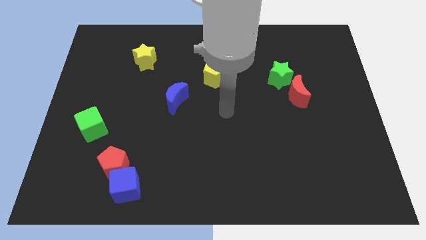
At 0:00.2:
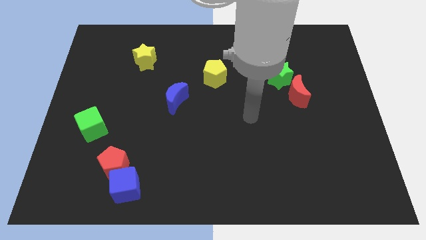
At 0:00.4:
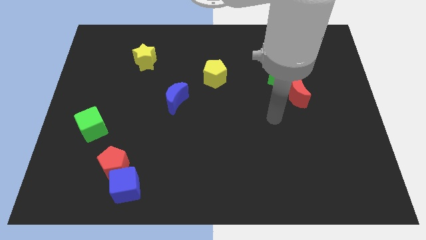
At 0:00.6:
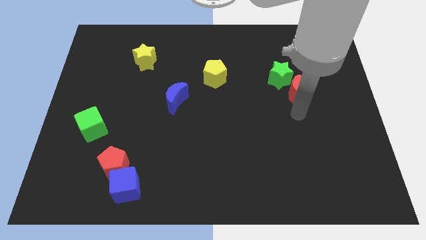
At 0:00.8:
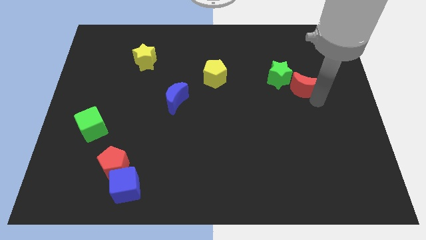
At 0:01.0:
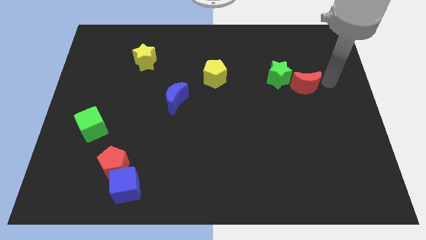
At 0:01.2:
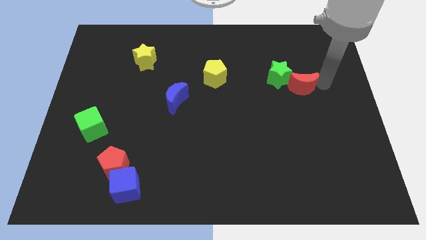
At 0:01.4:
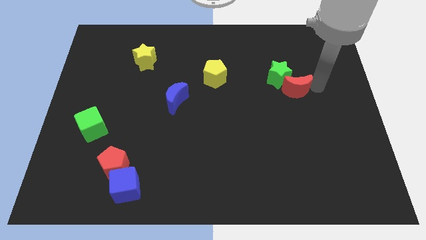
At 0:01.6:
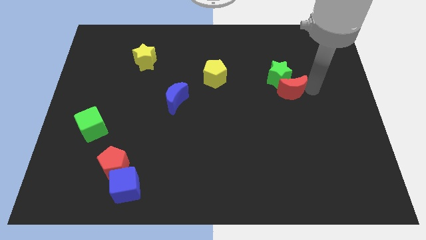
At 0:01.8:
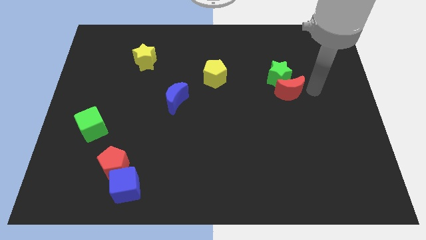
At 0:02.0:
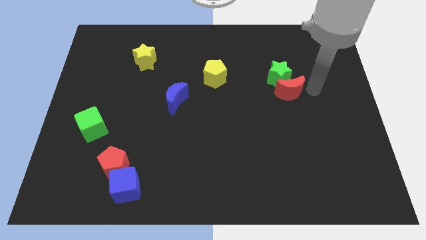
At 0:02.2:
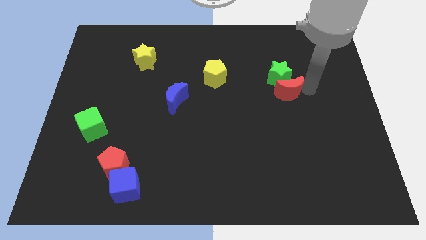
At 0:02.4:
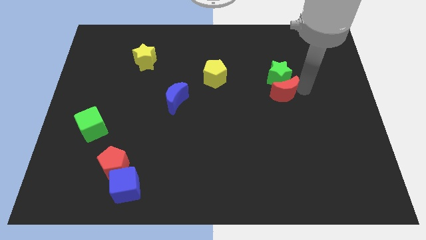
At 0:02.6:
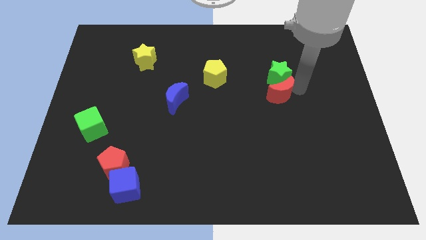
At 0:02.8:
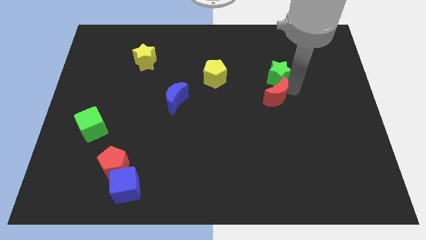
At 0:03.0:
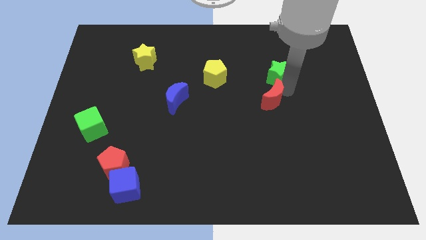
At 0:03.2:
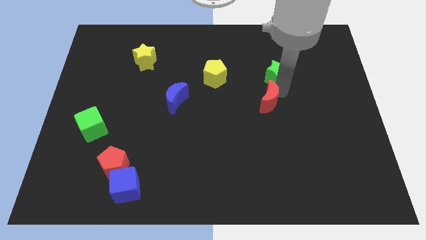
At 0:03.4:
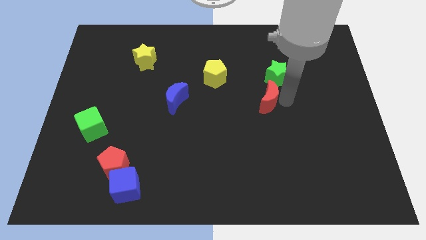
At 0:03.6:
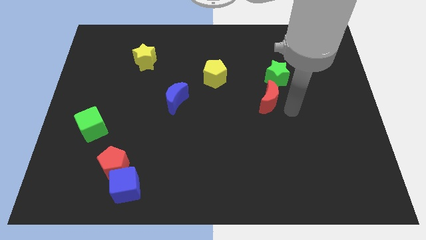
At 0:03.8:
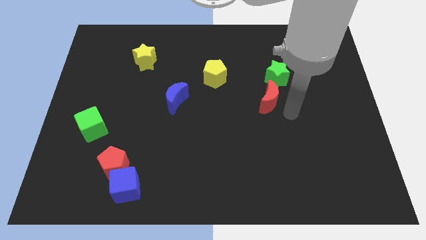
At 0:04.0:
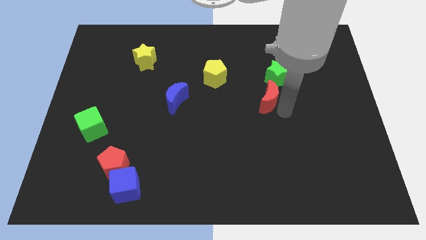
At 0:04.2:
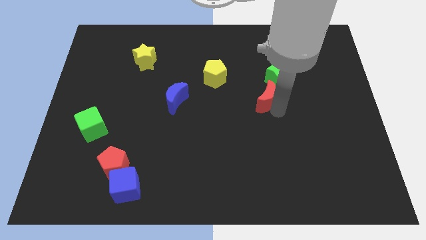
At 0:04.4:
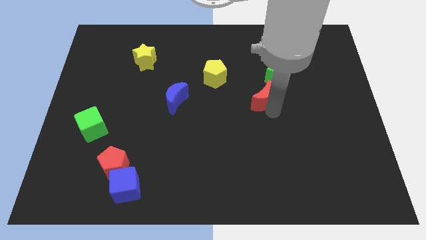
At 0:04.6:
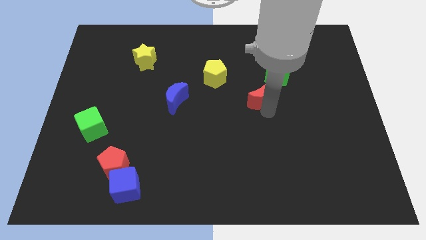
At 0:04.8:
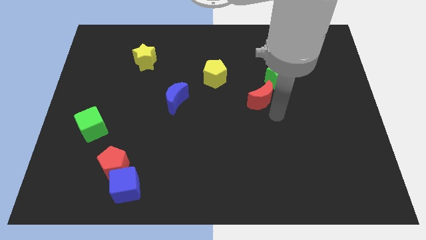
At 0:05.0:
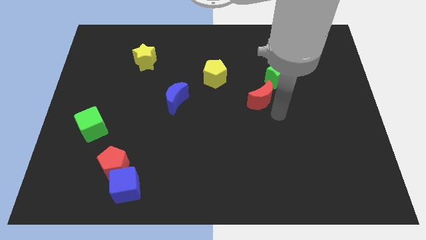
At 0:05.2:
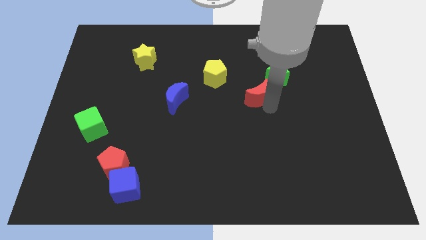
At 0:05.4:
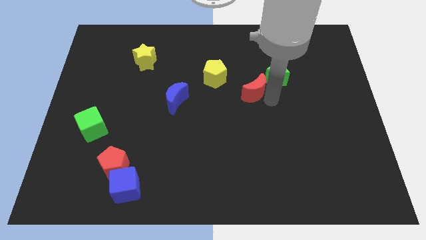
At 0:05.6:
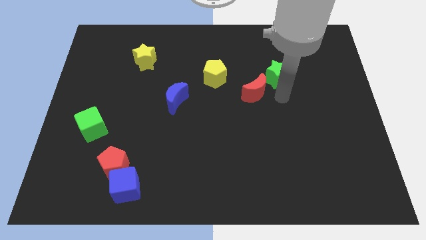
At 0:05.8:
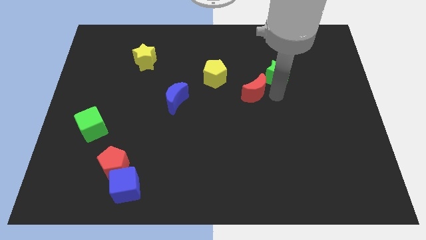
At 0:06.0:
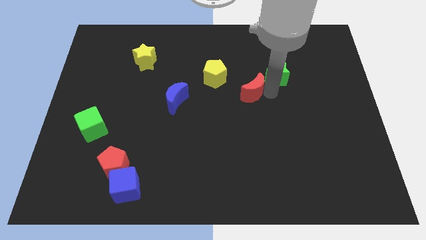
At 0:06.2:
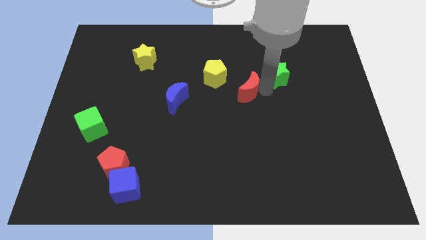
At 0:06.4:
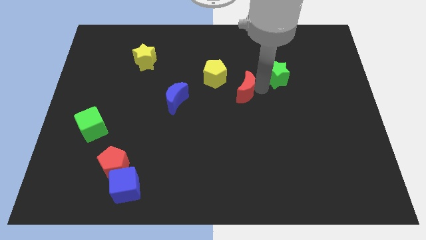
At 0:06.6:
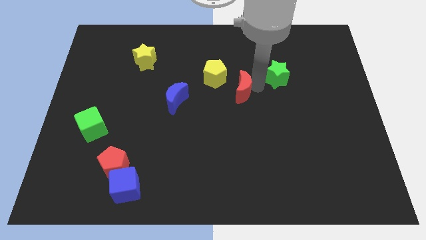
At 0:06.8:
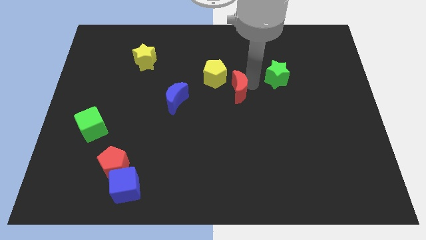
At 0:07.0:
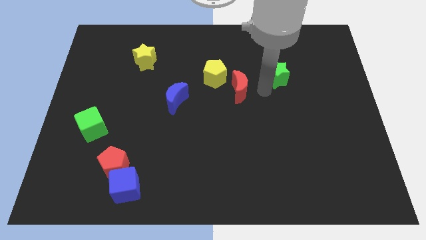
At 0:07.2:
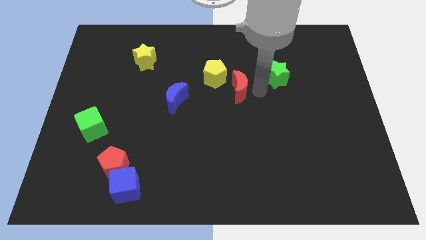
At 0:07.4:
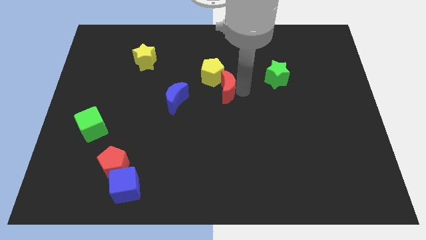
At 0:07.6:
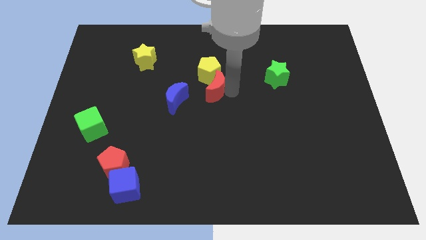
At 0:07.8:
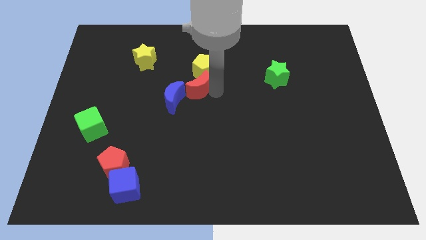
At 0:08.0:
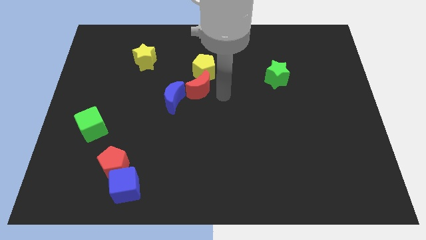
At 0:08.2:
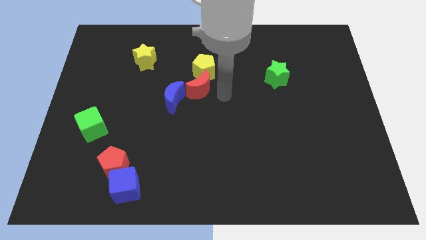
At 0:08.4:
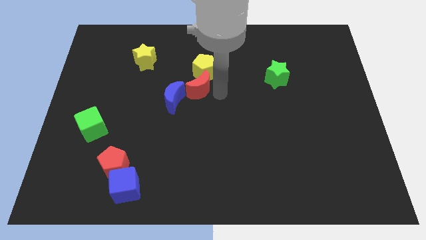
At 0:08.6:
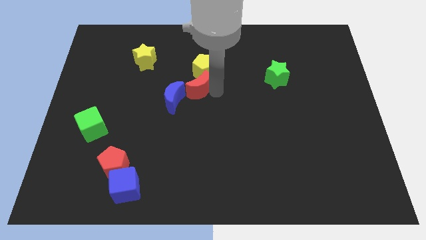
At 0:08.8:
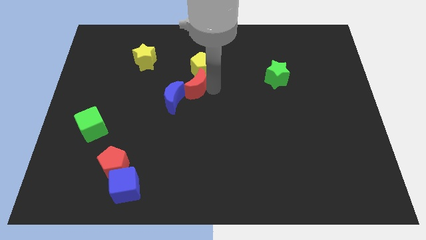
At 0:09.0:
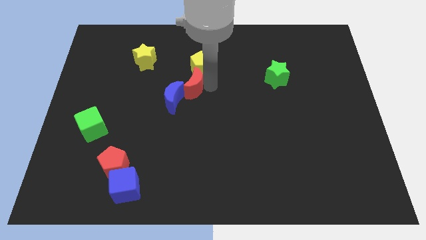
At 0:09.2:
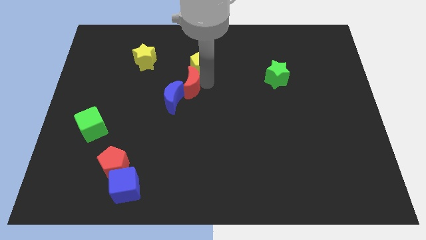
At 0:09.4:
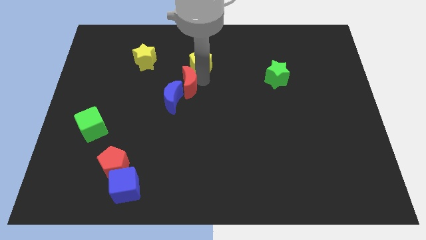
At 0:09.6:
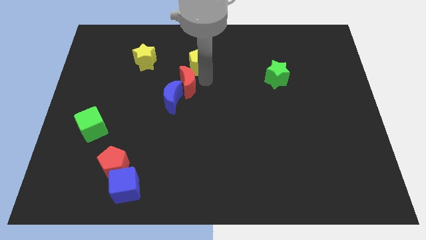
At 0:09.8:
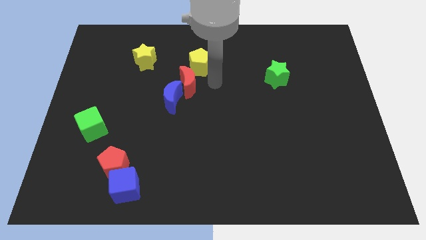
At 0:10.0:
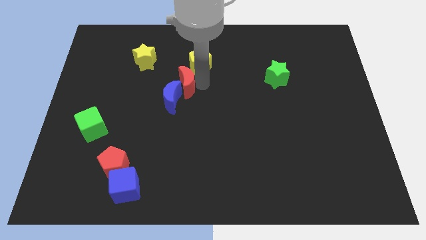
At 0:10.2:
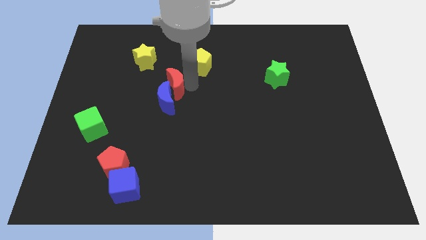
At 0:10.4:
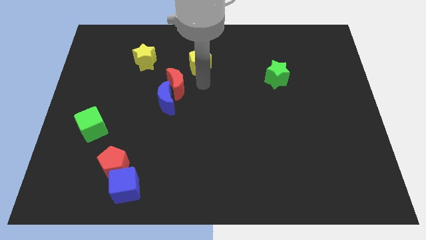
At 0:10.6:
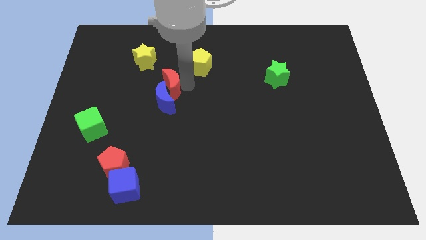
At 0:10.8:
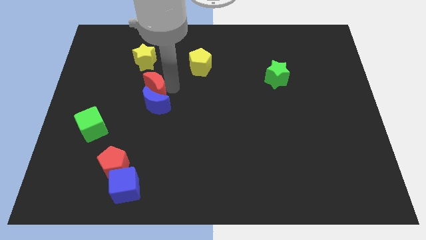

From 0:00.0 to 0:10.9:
move the red moon below the yellow star

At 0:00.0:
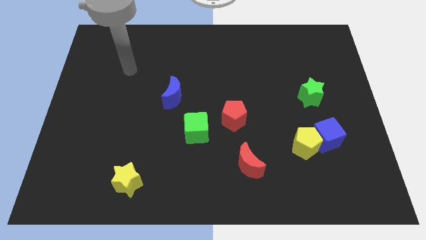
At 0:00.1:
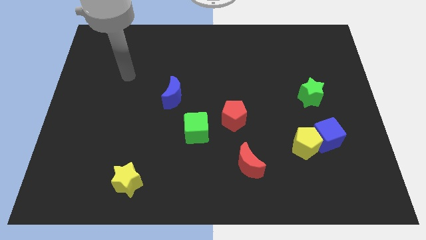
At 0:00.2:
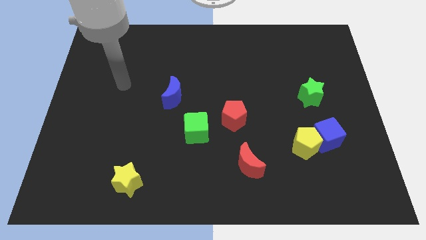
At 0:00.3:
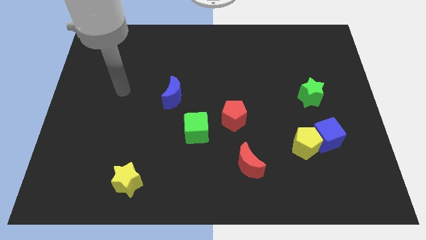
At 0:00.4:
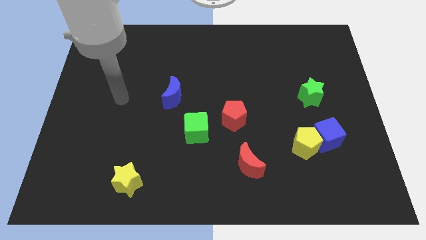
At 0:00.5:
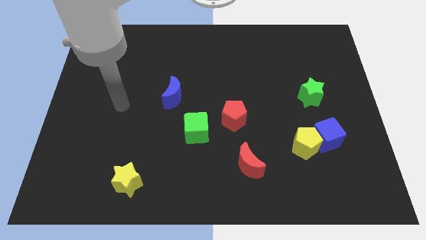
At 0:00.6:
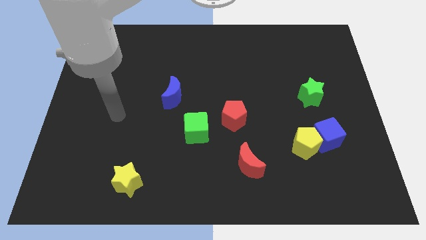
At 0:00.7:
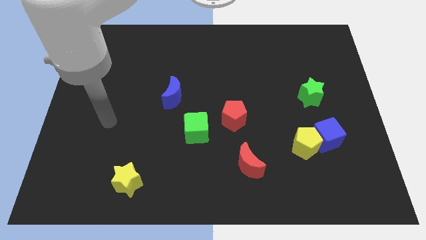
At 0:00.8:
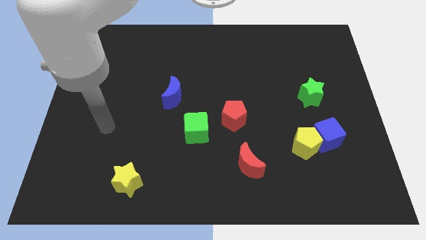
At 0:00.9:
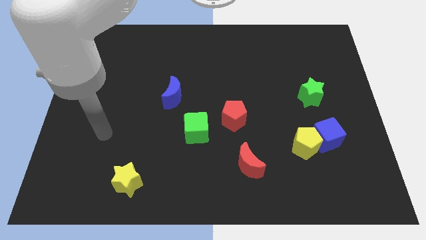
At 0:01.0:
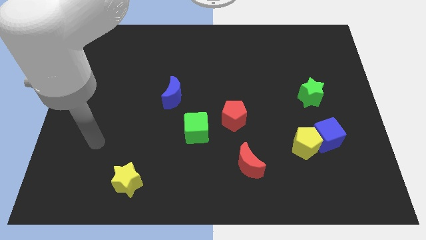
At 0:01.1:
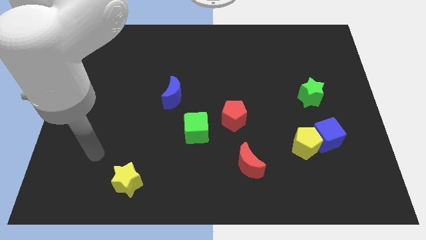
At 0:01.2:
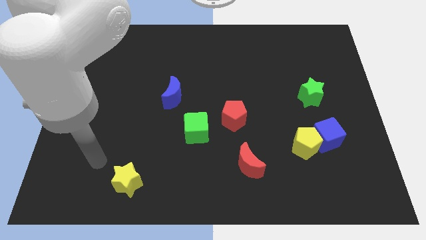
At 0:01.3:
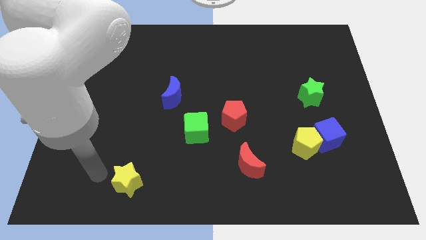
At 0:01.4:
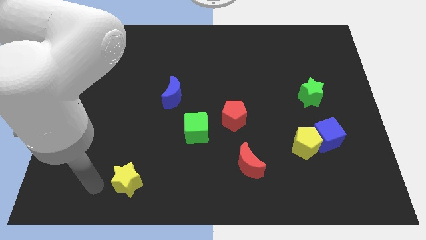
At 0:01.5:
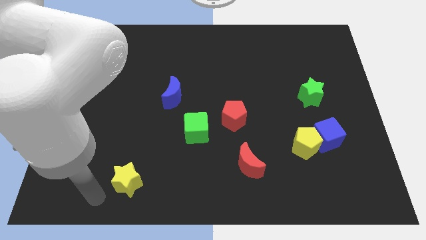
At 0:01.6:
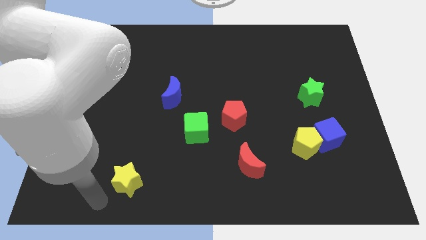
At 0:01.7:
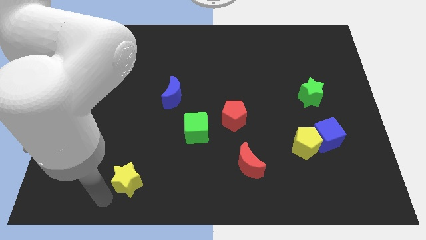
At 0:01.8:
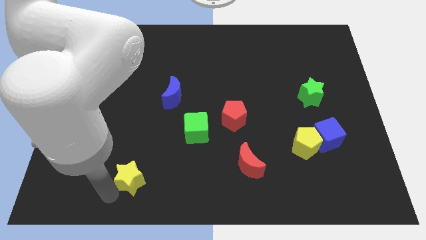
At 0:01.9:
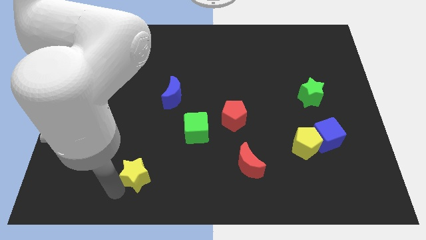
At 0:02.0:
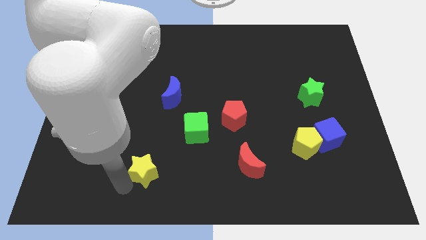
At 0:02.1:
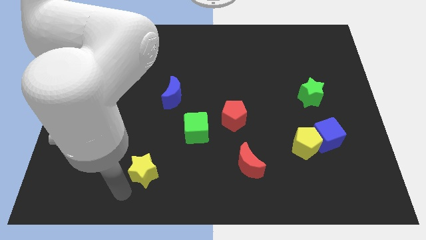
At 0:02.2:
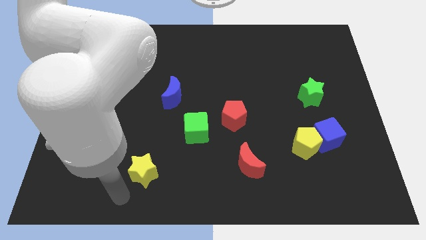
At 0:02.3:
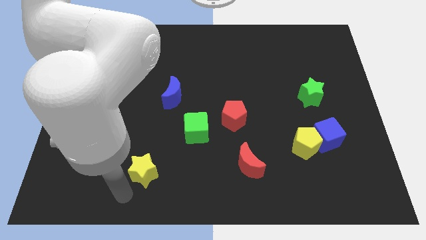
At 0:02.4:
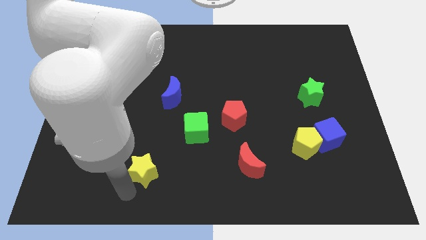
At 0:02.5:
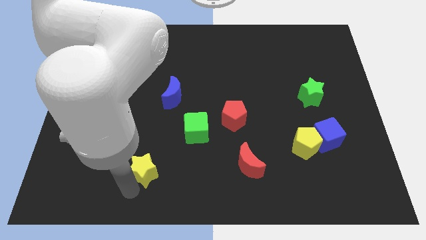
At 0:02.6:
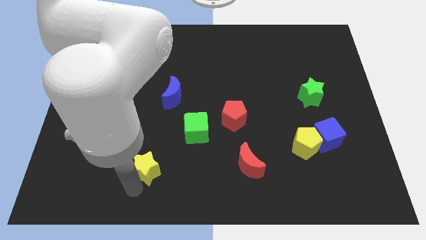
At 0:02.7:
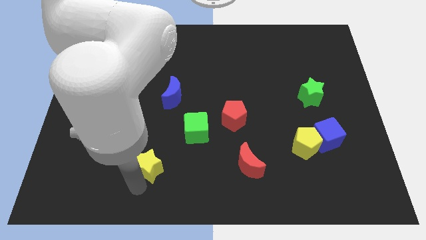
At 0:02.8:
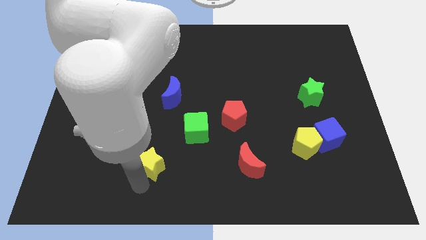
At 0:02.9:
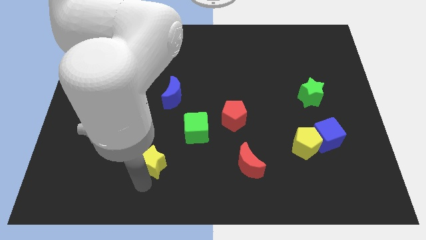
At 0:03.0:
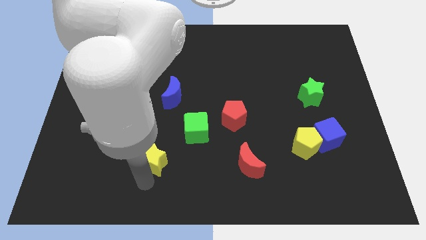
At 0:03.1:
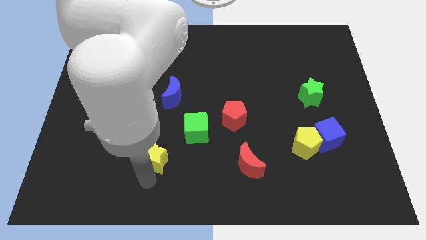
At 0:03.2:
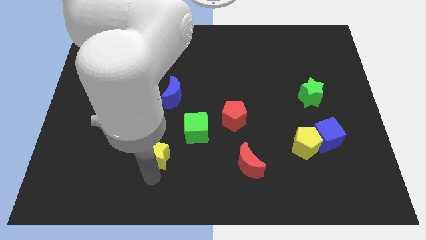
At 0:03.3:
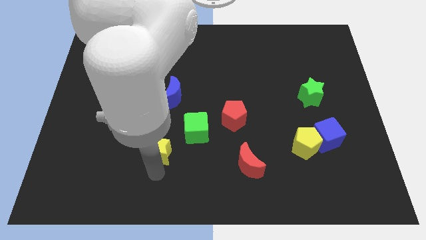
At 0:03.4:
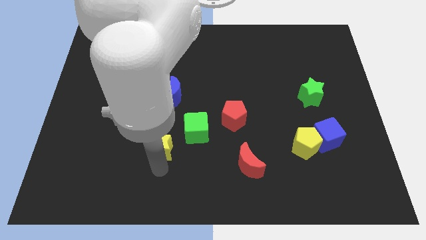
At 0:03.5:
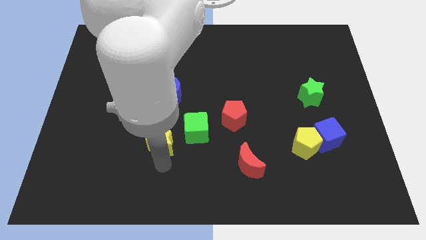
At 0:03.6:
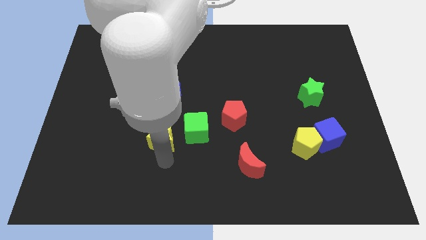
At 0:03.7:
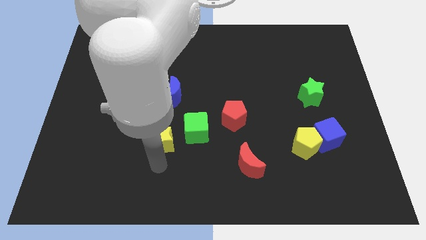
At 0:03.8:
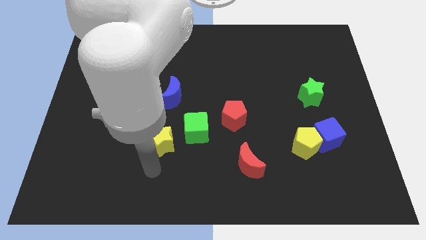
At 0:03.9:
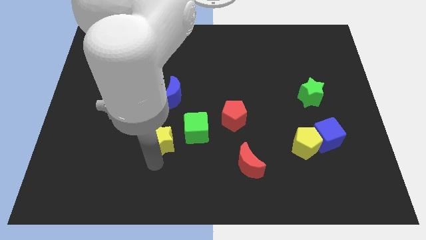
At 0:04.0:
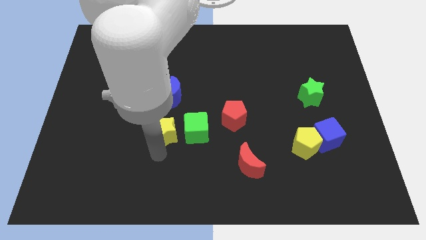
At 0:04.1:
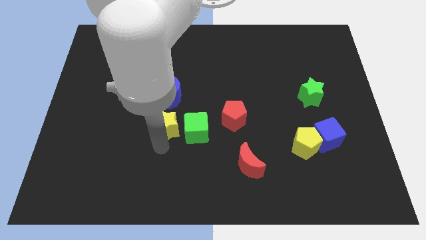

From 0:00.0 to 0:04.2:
put the yellow star diagonally up and to the left of the green cube
